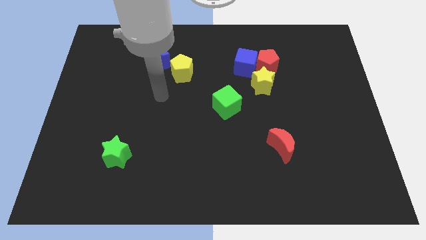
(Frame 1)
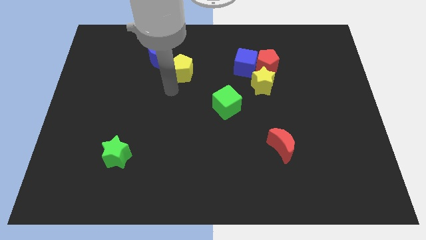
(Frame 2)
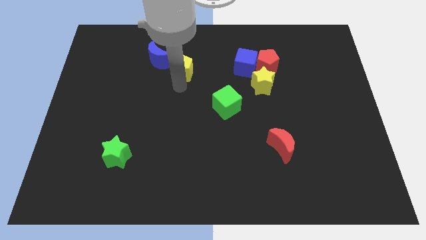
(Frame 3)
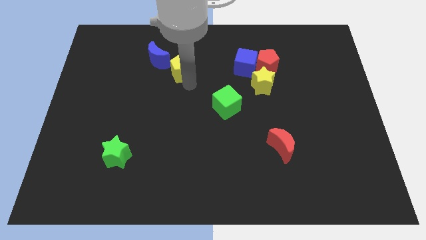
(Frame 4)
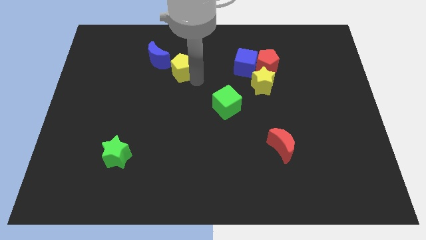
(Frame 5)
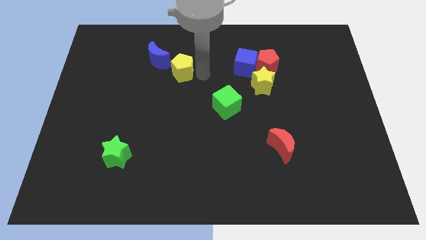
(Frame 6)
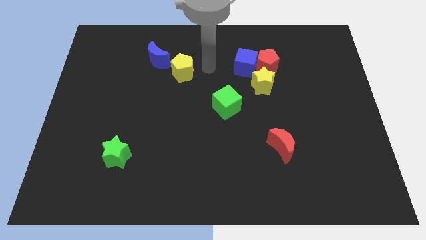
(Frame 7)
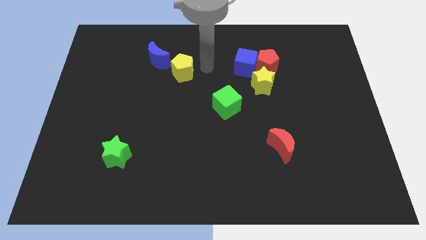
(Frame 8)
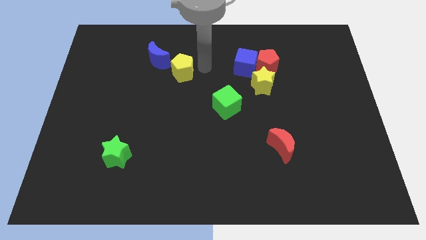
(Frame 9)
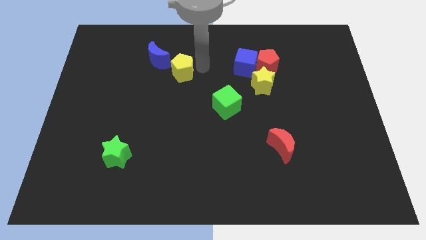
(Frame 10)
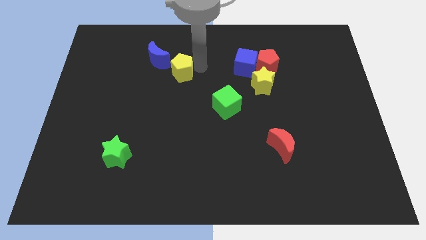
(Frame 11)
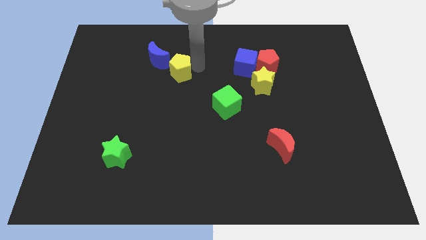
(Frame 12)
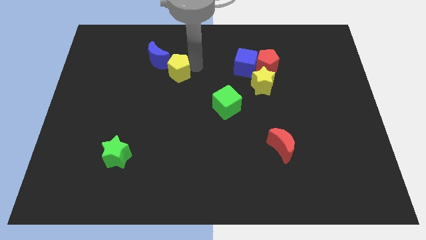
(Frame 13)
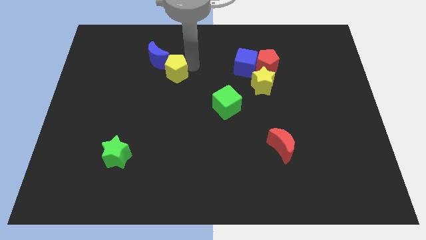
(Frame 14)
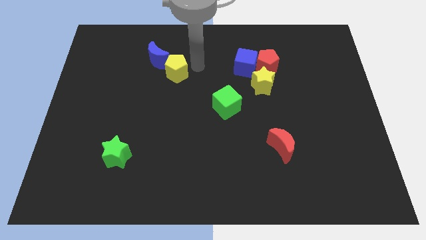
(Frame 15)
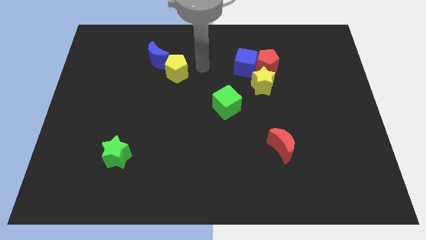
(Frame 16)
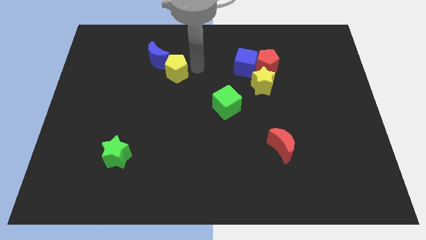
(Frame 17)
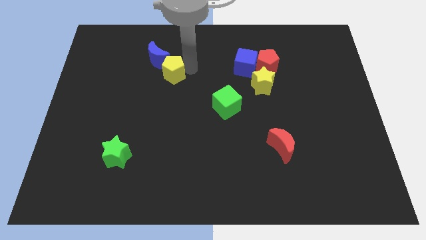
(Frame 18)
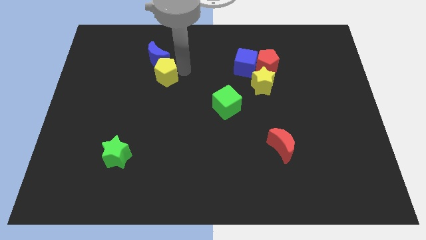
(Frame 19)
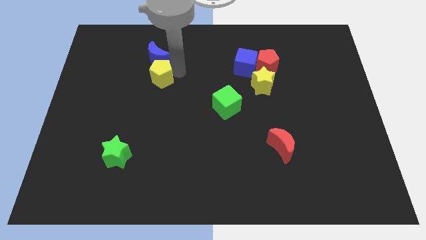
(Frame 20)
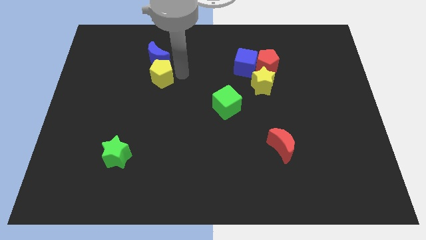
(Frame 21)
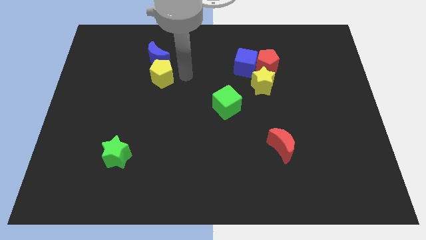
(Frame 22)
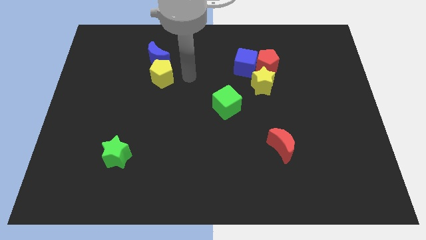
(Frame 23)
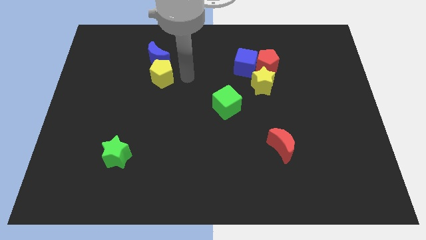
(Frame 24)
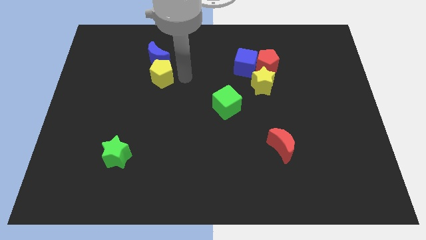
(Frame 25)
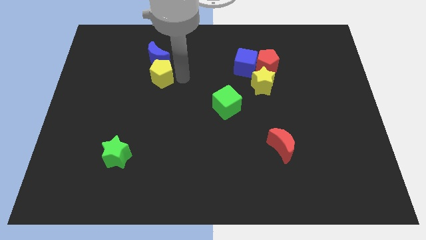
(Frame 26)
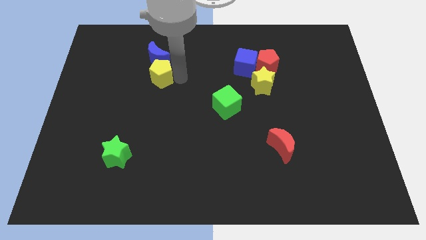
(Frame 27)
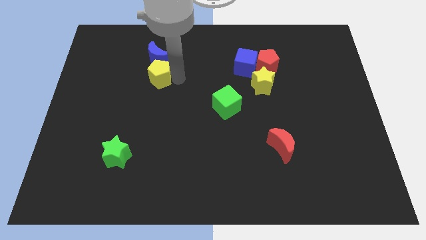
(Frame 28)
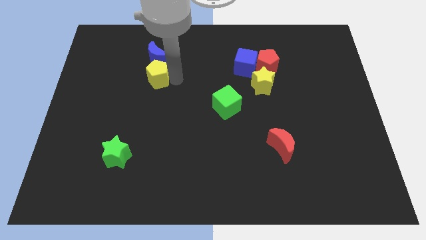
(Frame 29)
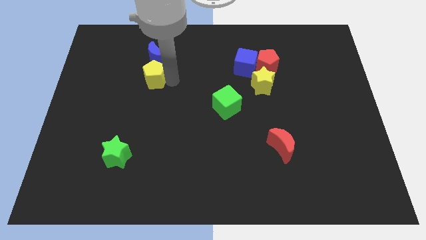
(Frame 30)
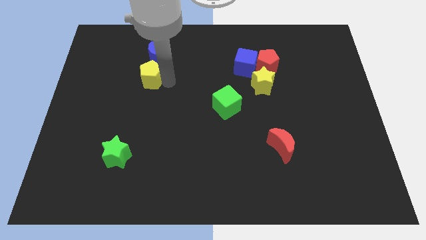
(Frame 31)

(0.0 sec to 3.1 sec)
push the yellow pentagon to the left somewhat

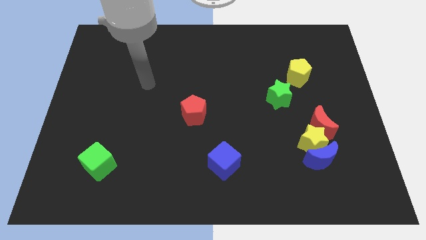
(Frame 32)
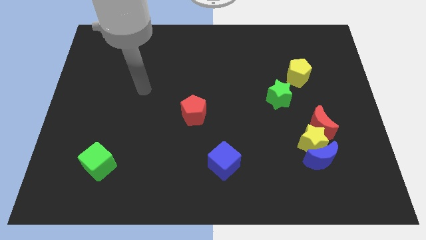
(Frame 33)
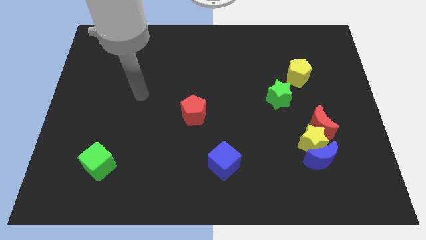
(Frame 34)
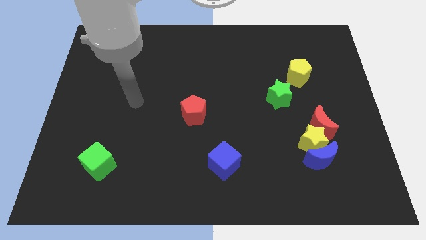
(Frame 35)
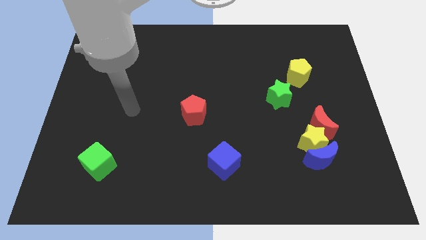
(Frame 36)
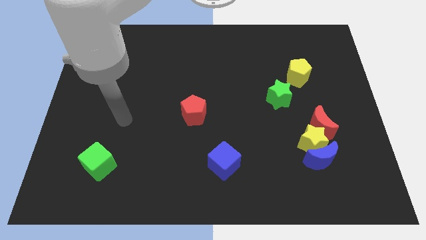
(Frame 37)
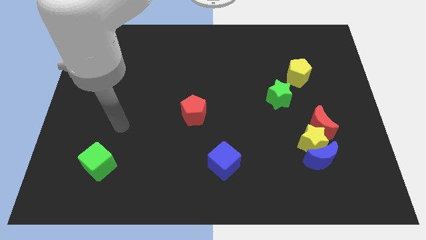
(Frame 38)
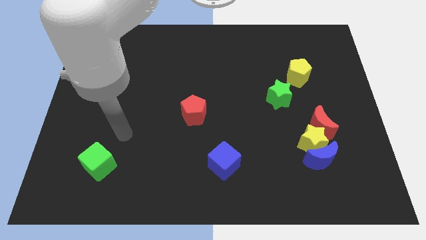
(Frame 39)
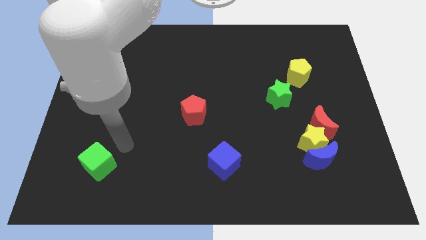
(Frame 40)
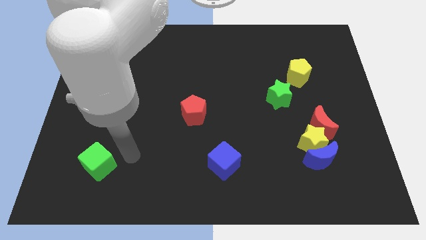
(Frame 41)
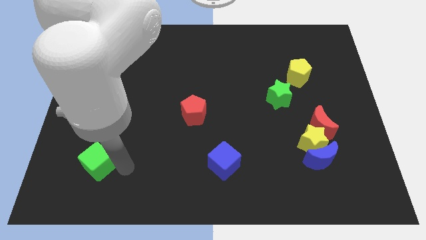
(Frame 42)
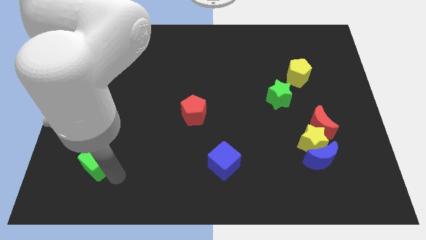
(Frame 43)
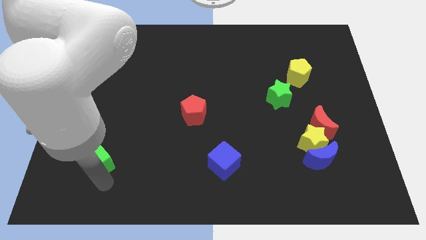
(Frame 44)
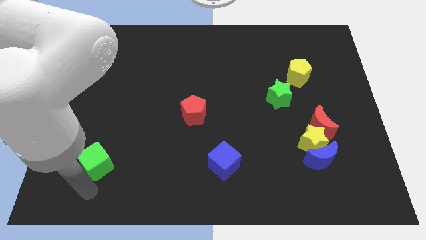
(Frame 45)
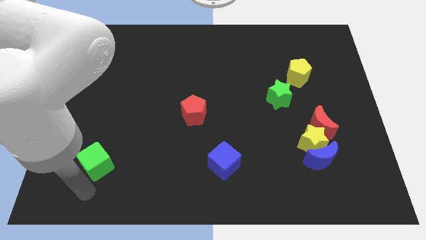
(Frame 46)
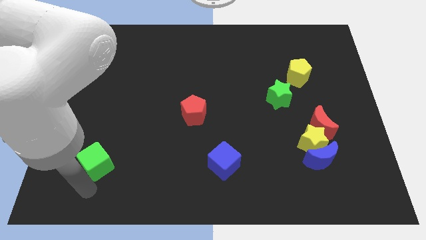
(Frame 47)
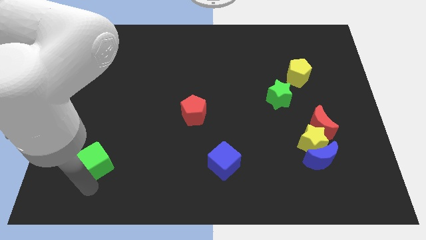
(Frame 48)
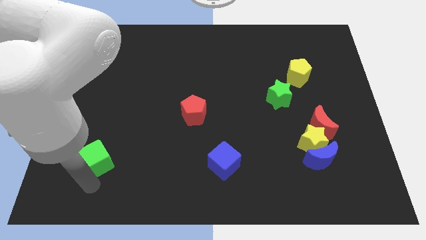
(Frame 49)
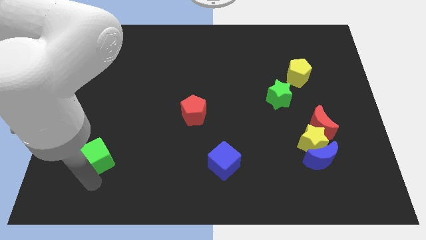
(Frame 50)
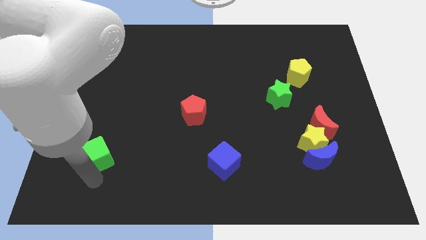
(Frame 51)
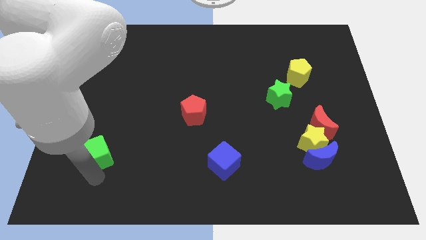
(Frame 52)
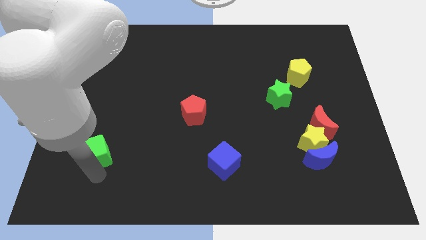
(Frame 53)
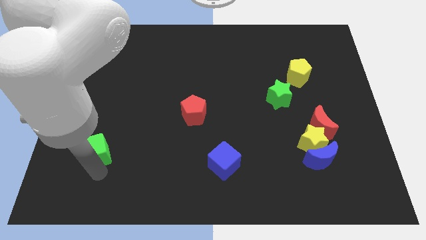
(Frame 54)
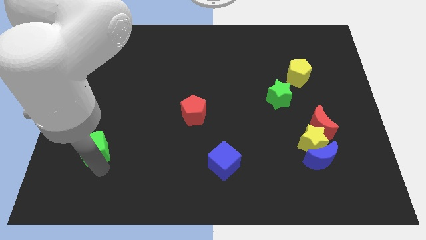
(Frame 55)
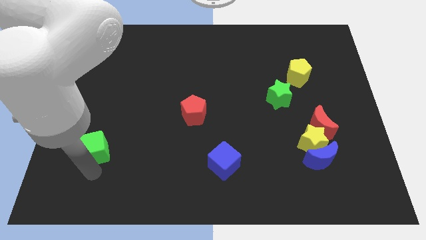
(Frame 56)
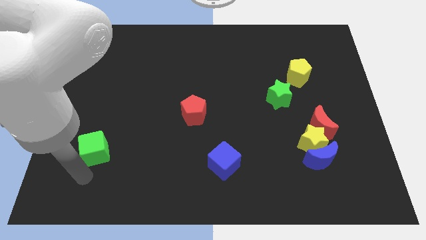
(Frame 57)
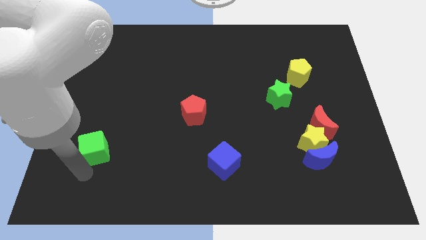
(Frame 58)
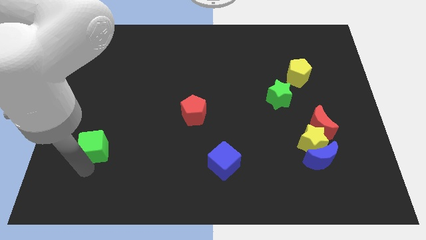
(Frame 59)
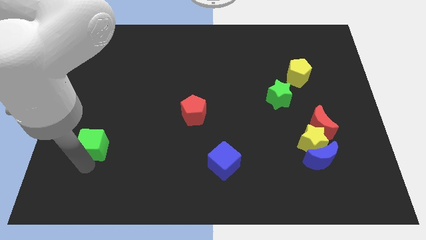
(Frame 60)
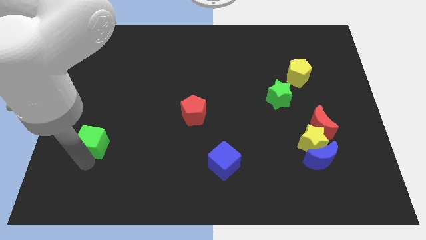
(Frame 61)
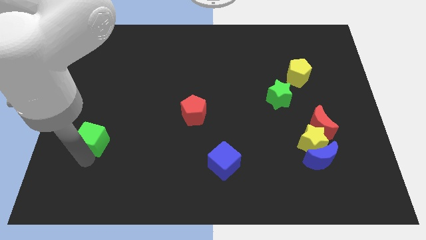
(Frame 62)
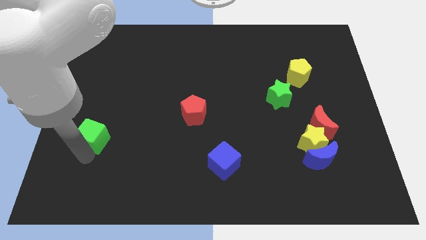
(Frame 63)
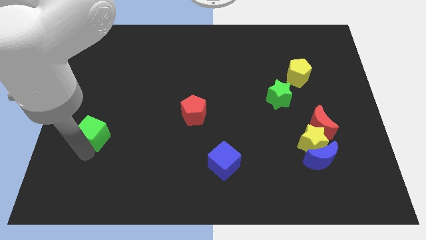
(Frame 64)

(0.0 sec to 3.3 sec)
move the green cube slightly upwards

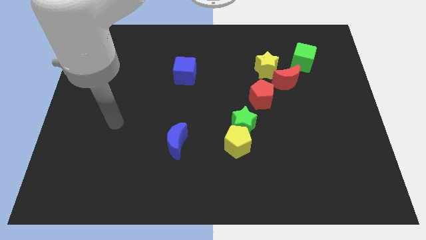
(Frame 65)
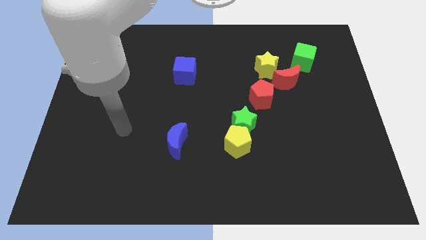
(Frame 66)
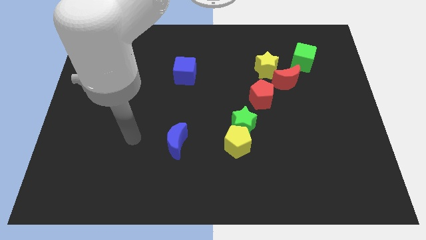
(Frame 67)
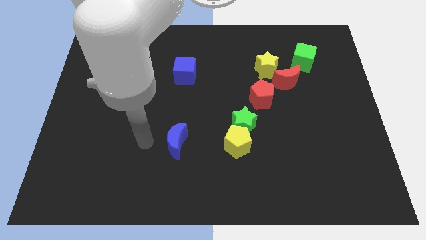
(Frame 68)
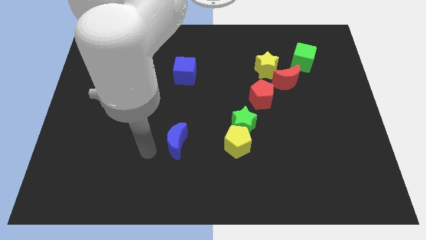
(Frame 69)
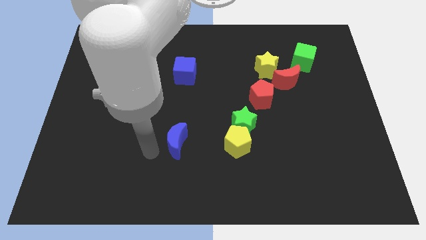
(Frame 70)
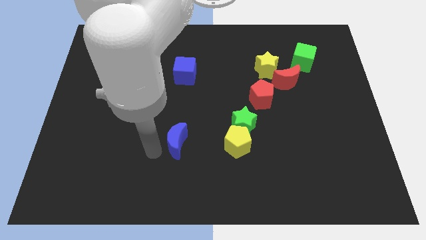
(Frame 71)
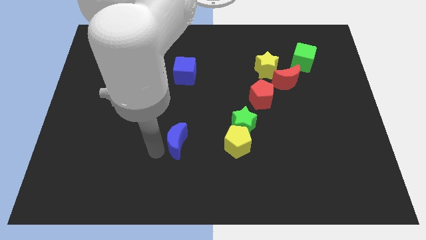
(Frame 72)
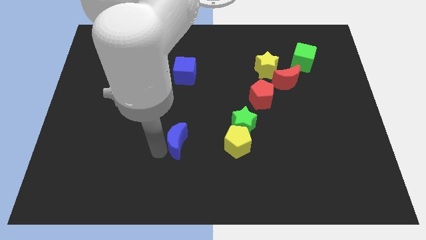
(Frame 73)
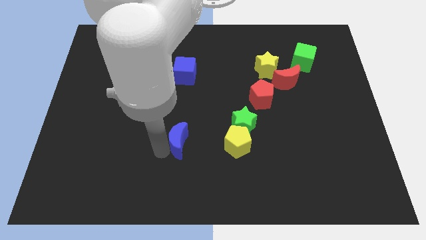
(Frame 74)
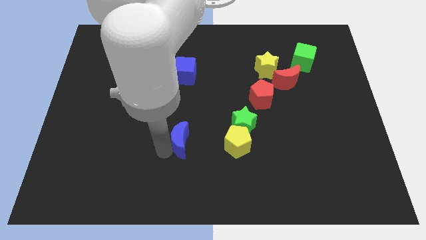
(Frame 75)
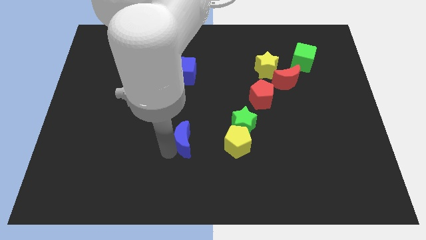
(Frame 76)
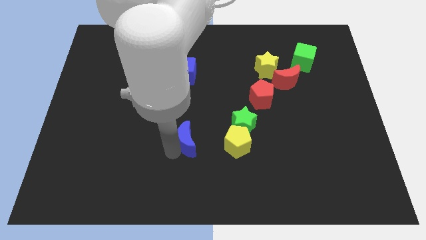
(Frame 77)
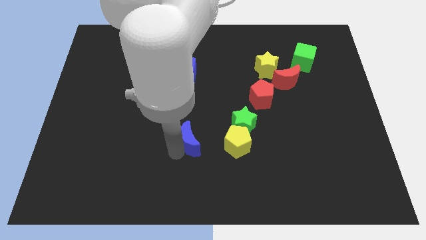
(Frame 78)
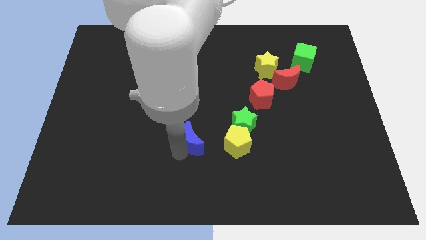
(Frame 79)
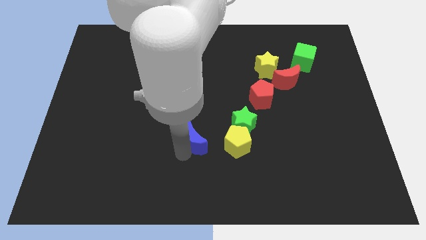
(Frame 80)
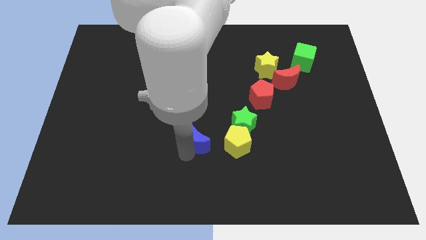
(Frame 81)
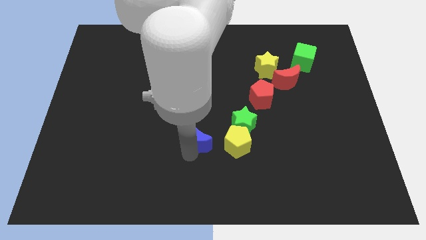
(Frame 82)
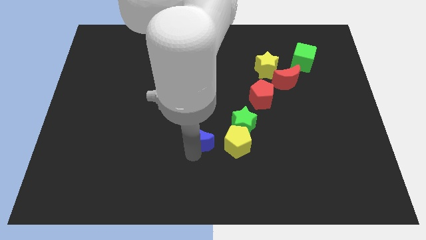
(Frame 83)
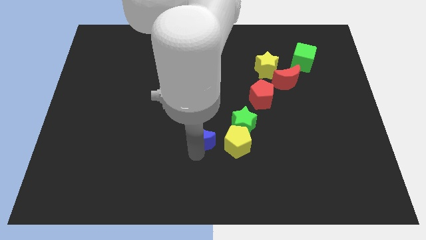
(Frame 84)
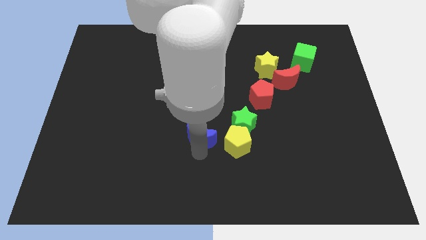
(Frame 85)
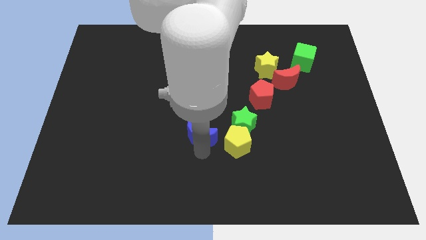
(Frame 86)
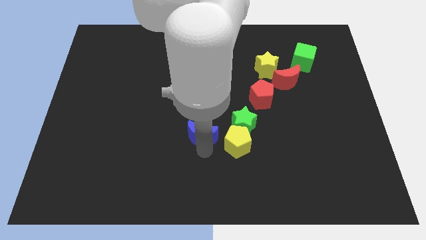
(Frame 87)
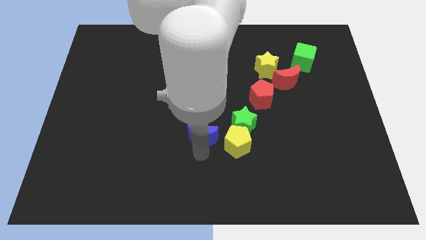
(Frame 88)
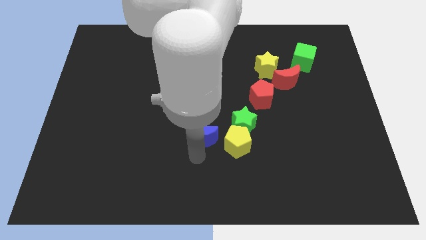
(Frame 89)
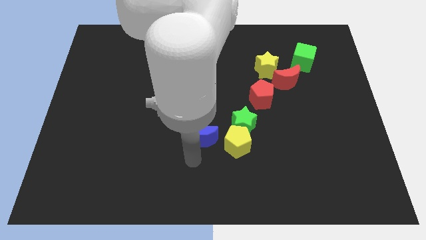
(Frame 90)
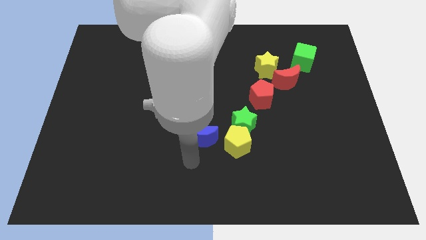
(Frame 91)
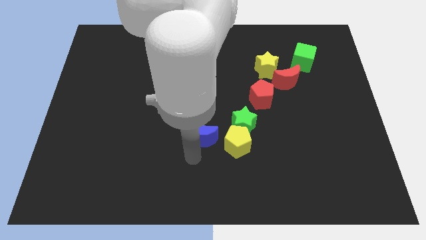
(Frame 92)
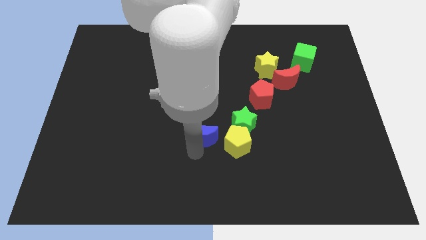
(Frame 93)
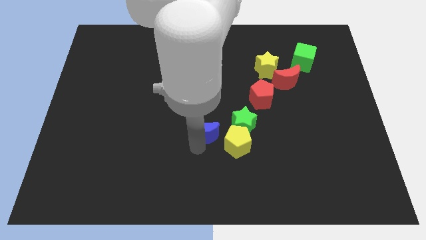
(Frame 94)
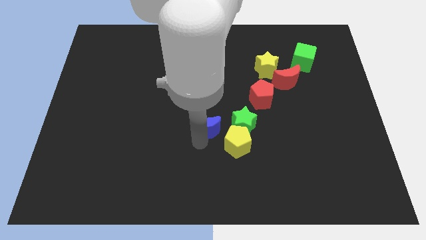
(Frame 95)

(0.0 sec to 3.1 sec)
move the blue moon diagonally up and to the right slightly
